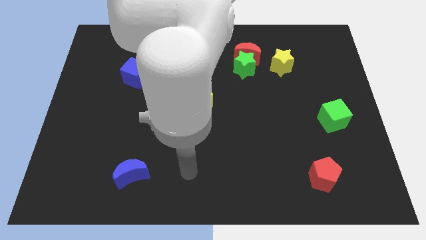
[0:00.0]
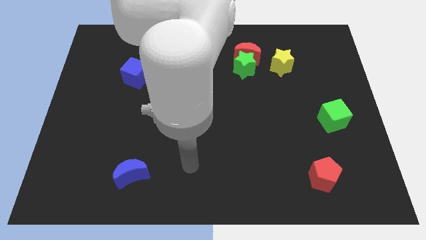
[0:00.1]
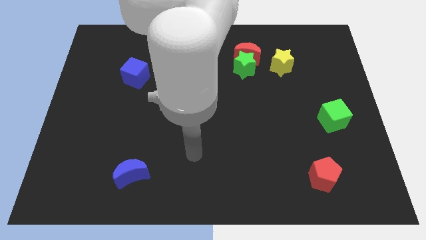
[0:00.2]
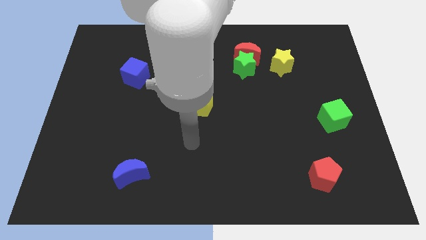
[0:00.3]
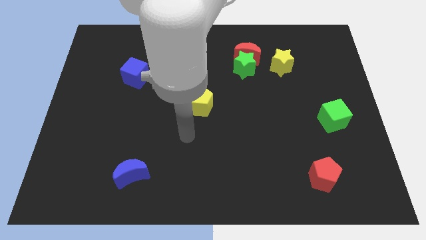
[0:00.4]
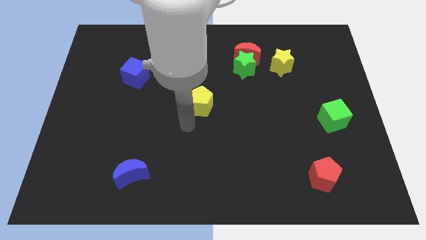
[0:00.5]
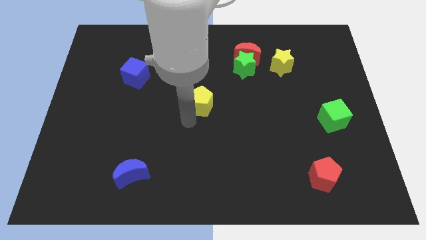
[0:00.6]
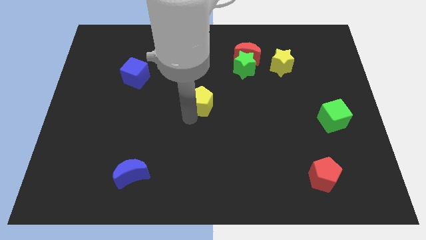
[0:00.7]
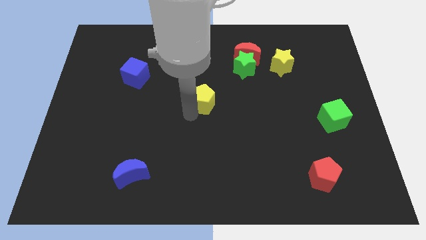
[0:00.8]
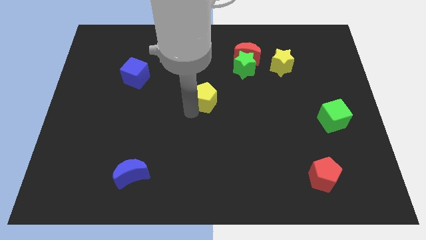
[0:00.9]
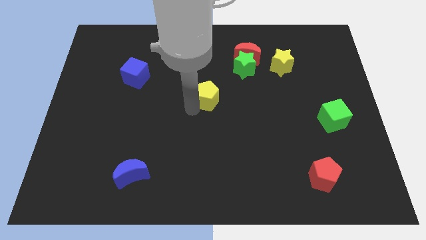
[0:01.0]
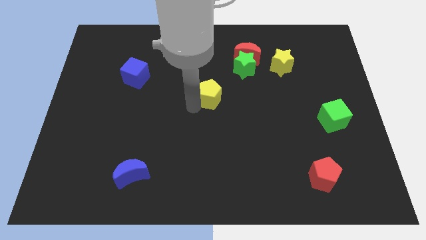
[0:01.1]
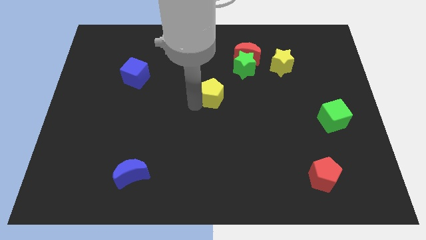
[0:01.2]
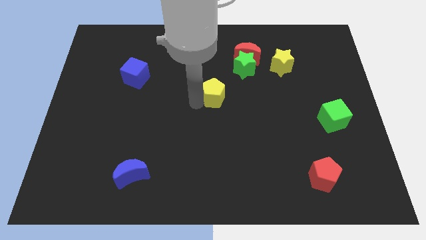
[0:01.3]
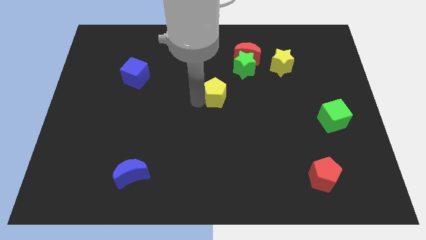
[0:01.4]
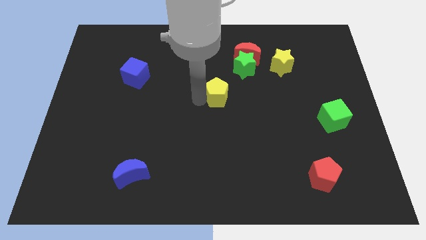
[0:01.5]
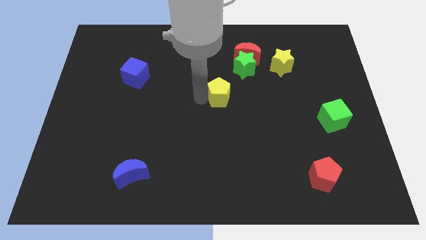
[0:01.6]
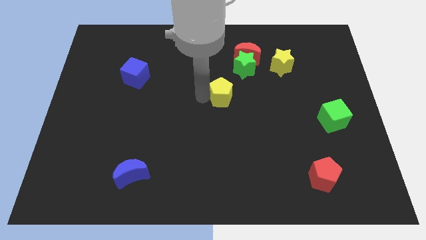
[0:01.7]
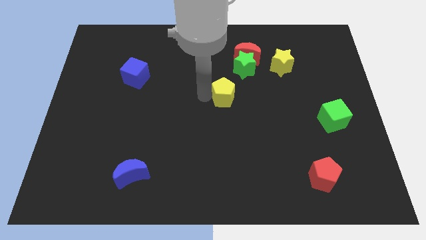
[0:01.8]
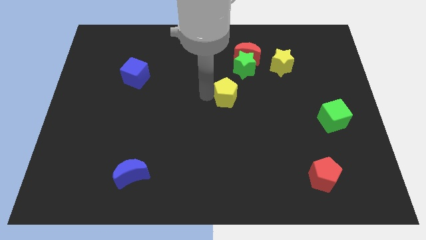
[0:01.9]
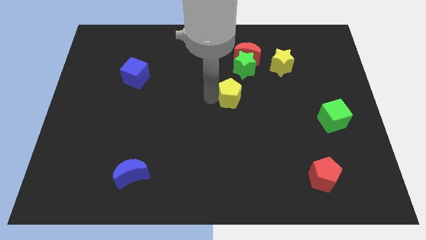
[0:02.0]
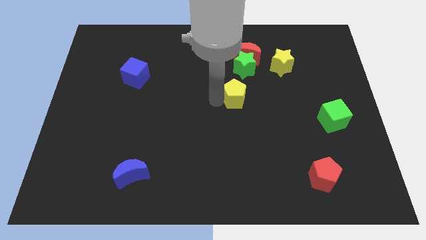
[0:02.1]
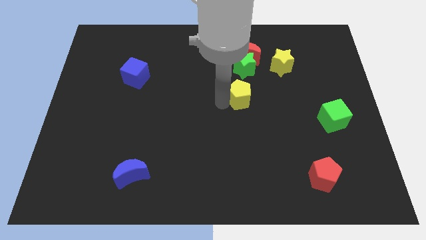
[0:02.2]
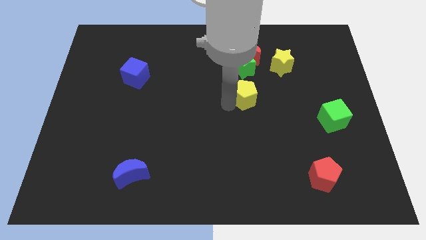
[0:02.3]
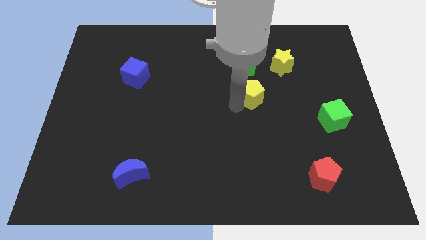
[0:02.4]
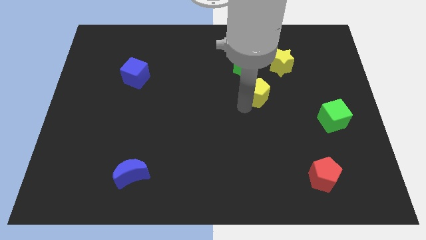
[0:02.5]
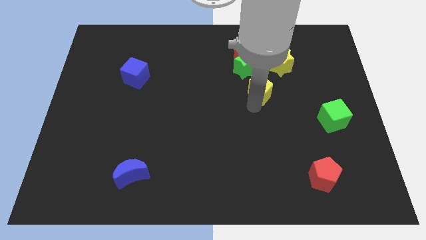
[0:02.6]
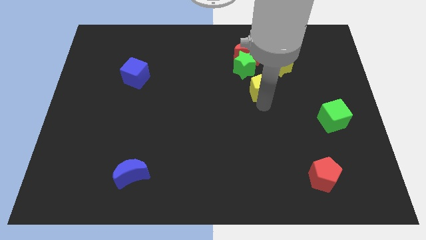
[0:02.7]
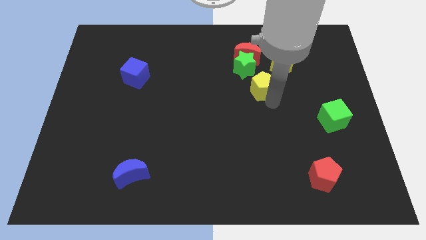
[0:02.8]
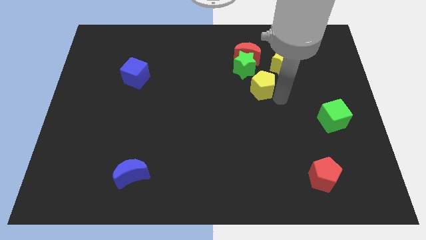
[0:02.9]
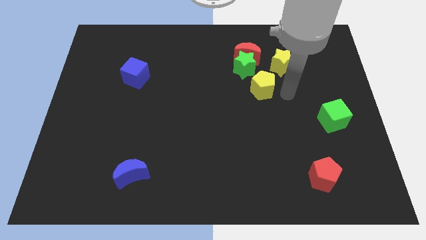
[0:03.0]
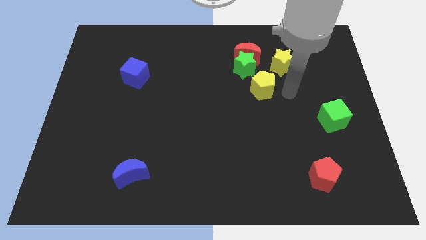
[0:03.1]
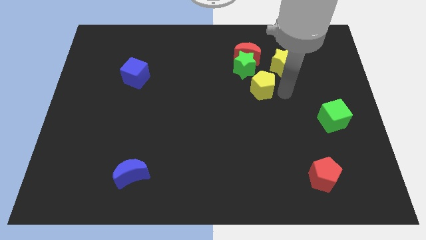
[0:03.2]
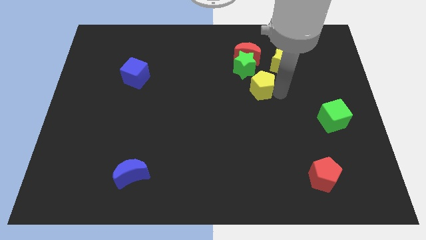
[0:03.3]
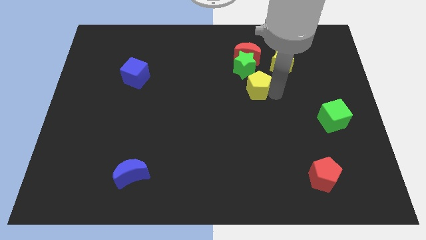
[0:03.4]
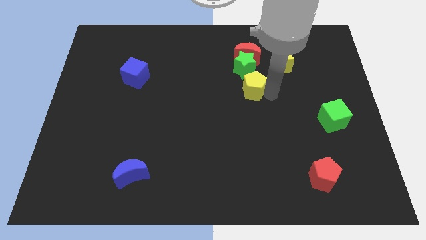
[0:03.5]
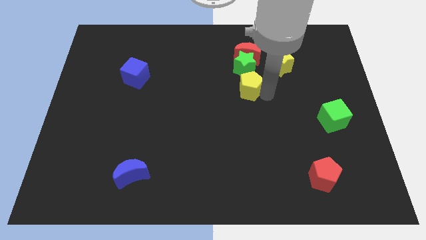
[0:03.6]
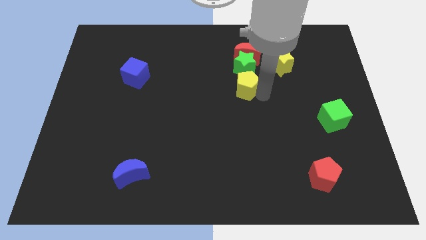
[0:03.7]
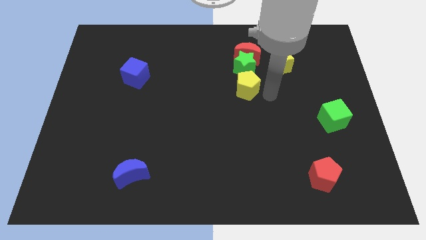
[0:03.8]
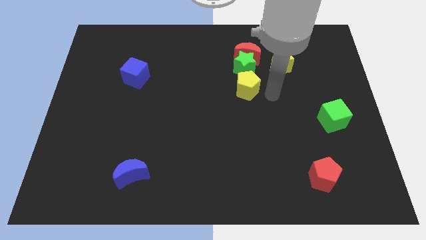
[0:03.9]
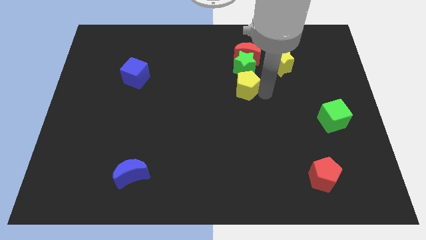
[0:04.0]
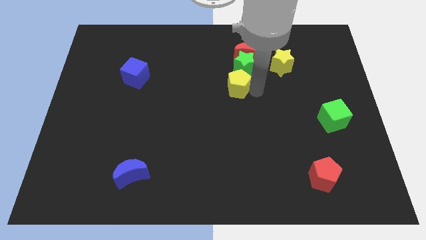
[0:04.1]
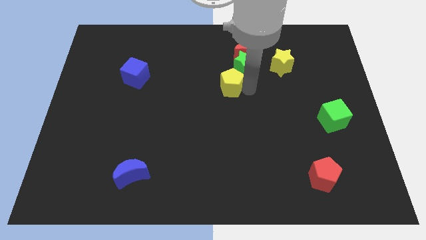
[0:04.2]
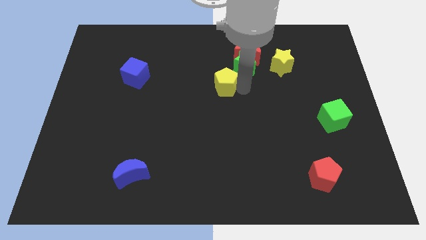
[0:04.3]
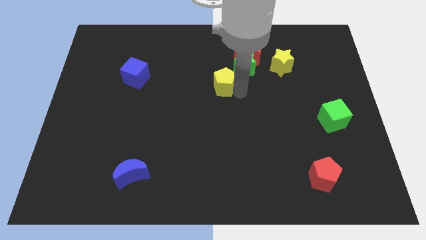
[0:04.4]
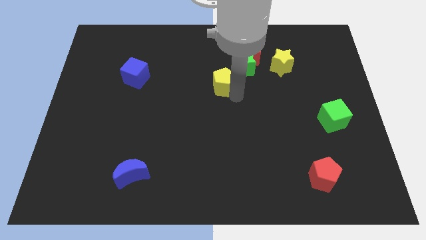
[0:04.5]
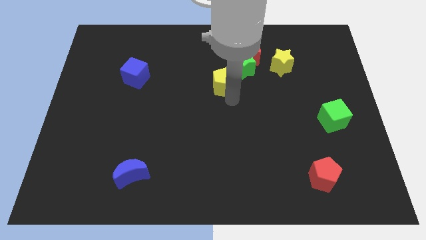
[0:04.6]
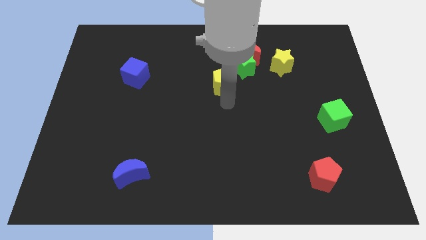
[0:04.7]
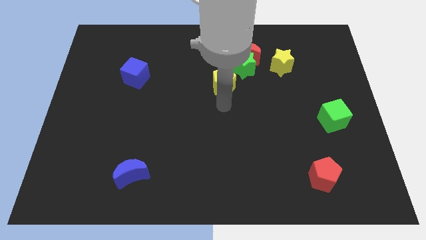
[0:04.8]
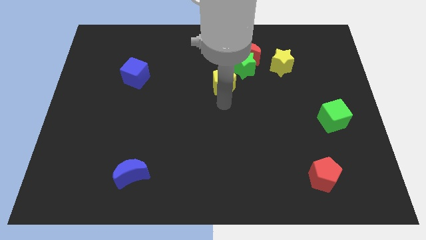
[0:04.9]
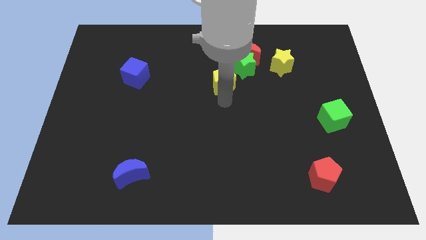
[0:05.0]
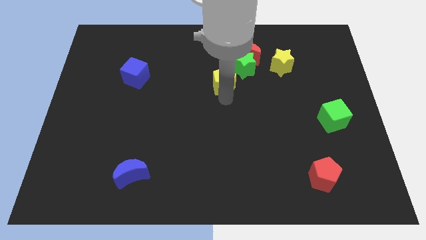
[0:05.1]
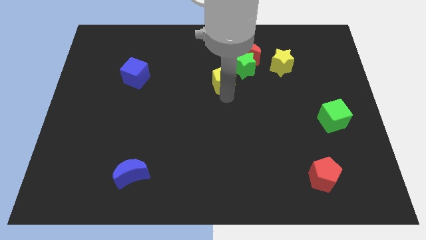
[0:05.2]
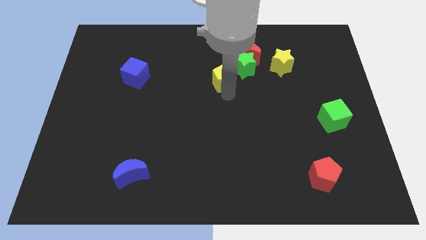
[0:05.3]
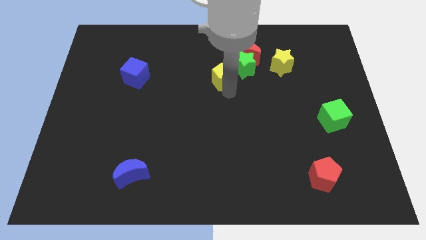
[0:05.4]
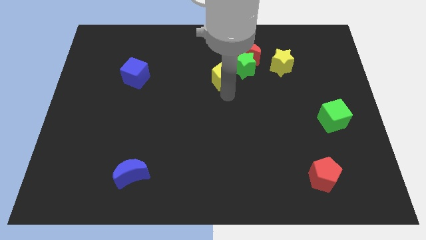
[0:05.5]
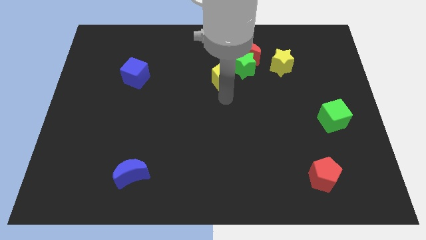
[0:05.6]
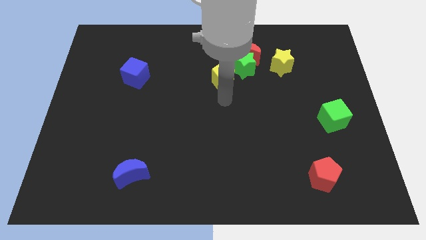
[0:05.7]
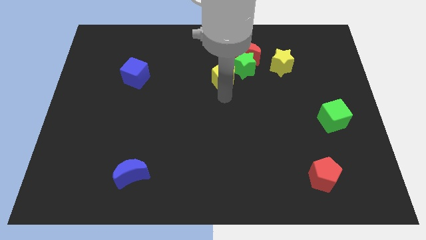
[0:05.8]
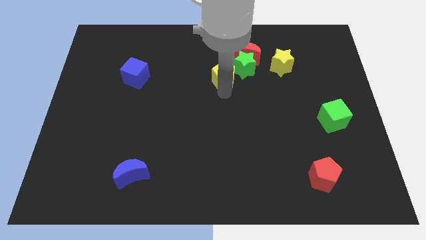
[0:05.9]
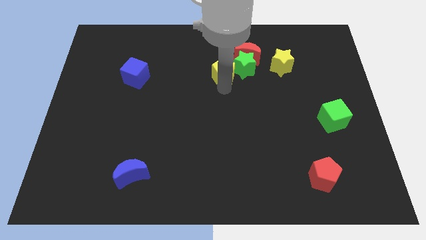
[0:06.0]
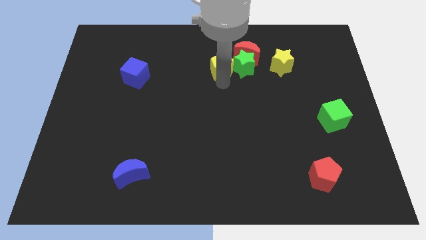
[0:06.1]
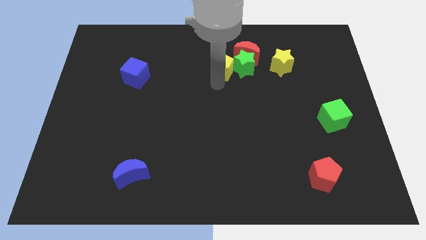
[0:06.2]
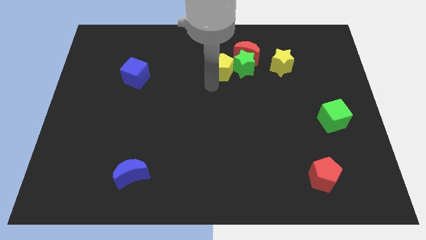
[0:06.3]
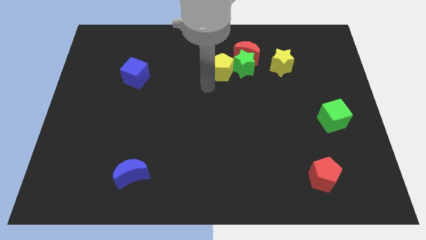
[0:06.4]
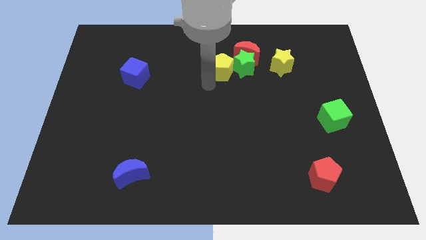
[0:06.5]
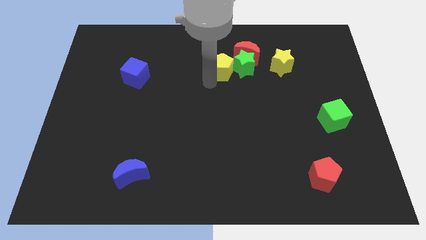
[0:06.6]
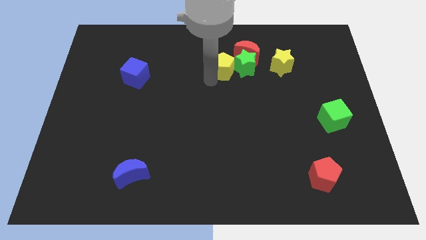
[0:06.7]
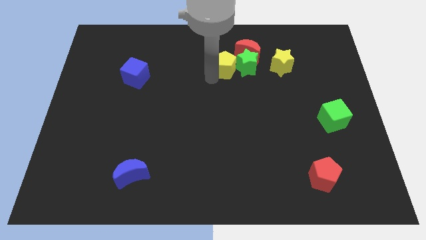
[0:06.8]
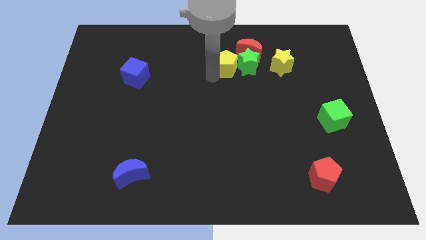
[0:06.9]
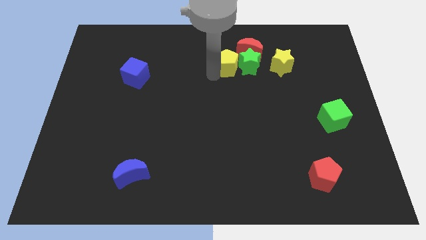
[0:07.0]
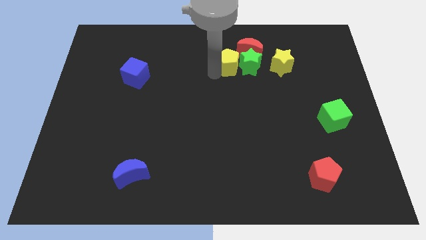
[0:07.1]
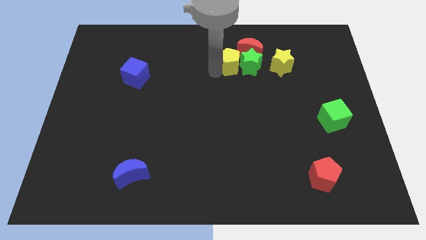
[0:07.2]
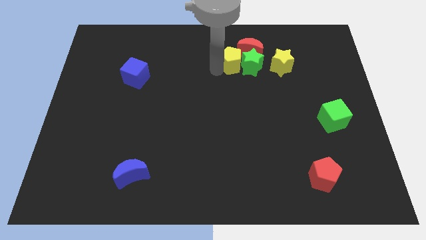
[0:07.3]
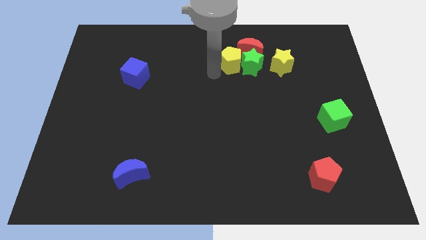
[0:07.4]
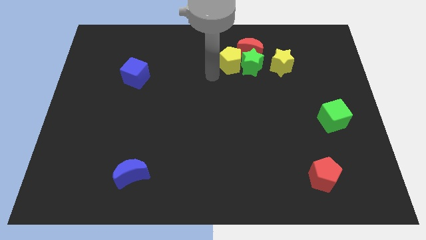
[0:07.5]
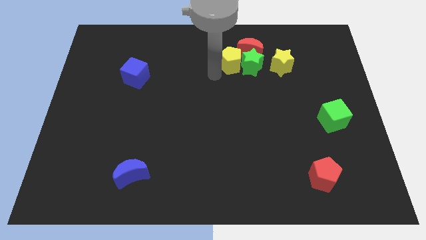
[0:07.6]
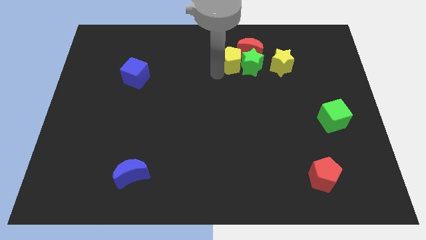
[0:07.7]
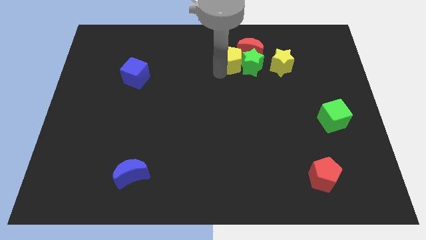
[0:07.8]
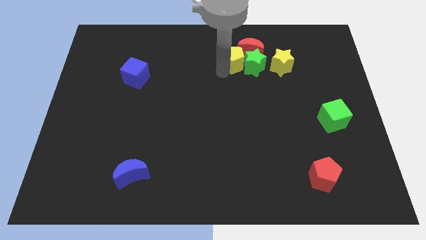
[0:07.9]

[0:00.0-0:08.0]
push the yellow pentagon towards the red moon
